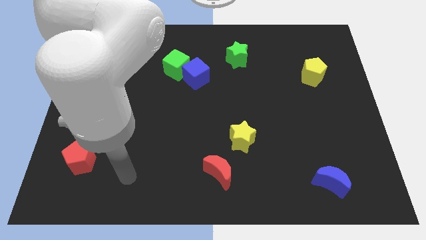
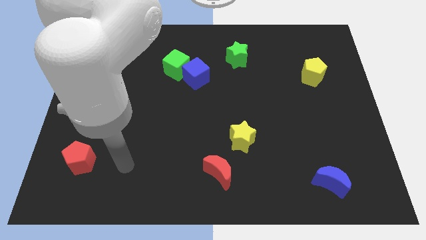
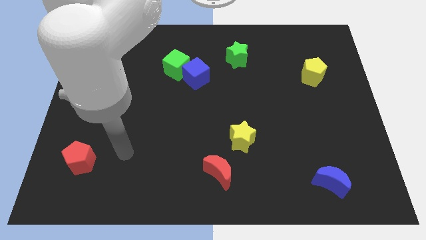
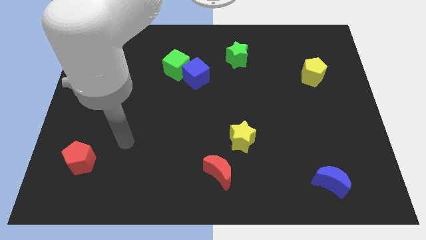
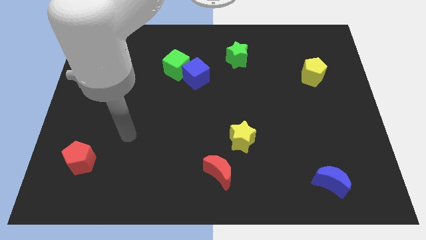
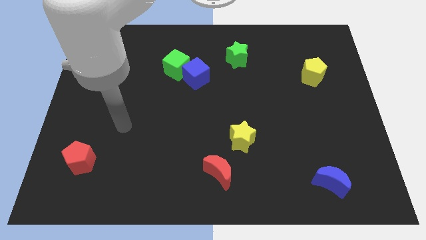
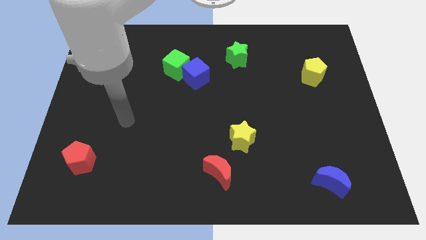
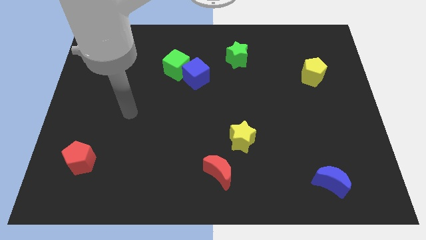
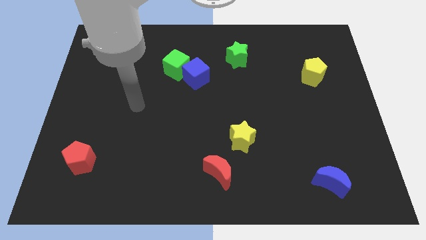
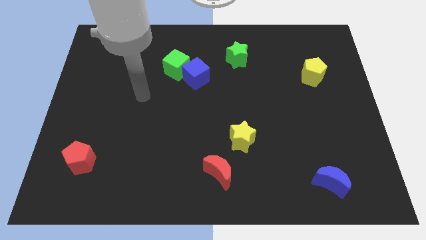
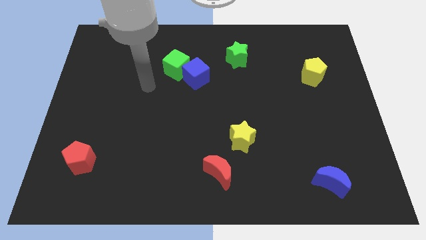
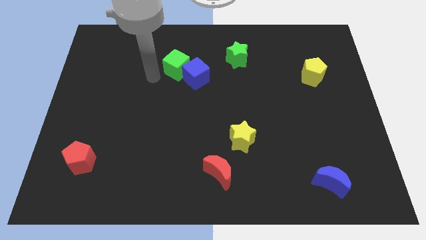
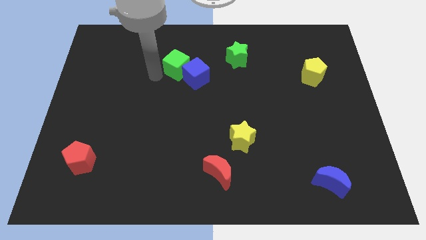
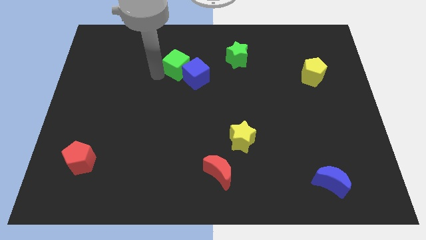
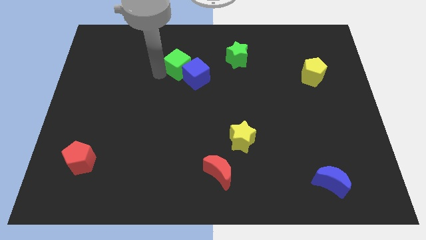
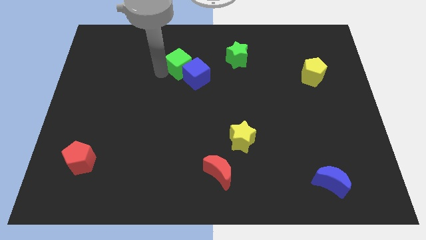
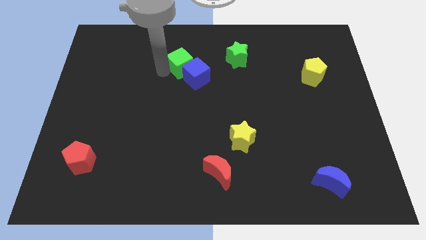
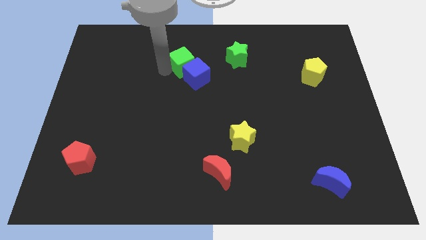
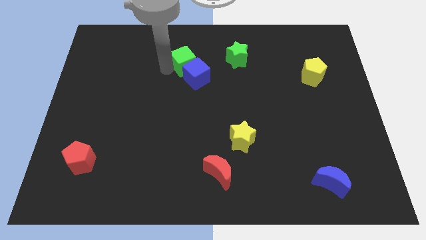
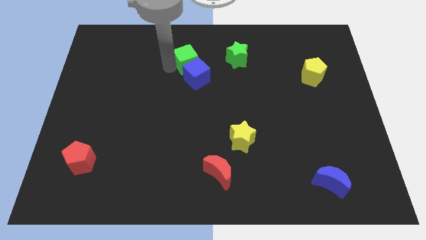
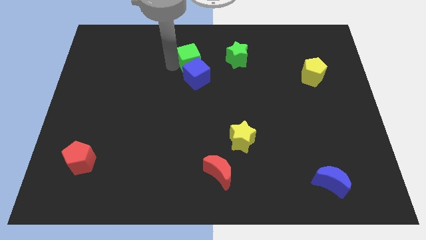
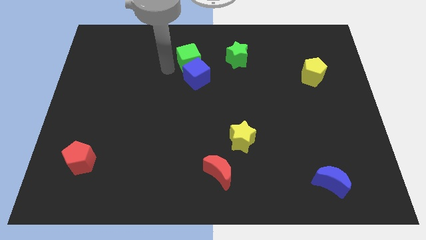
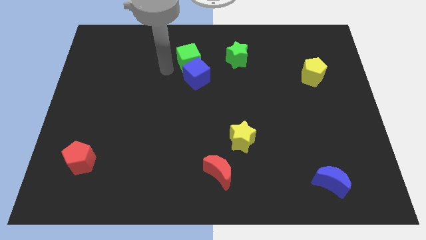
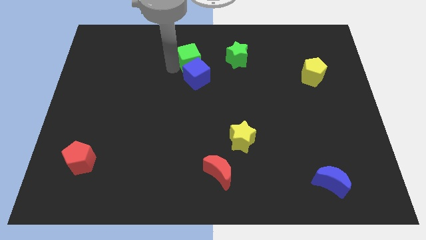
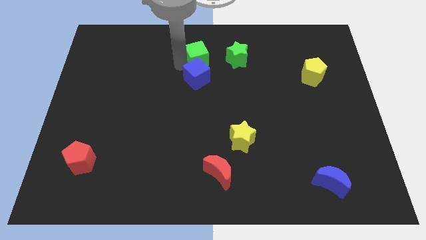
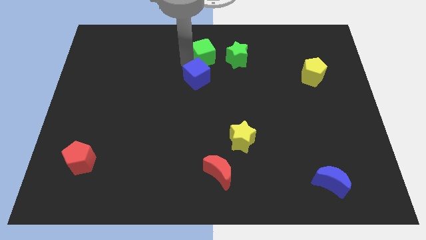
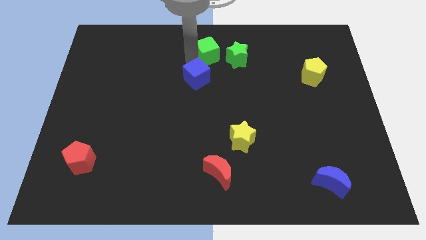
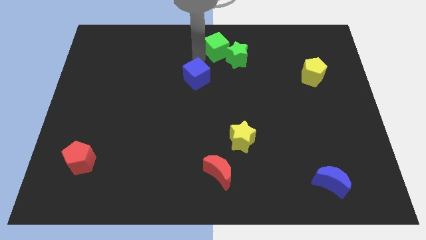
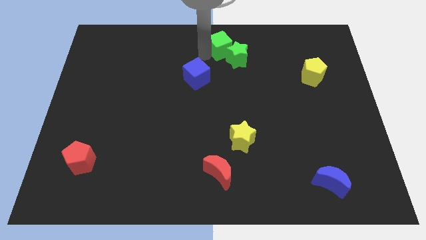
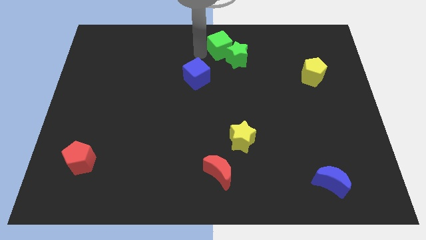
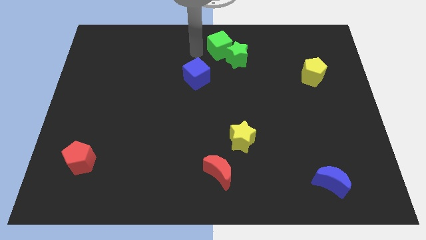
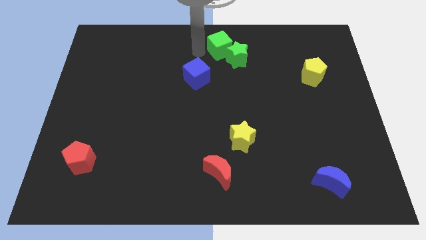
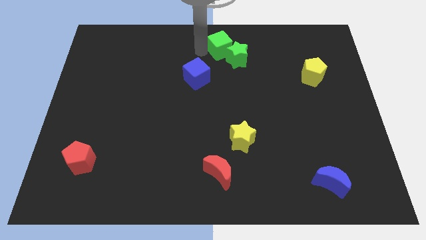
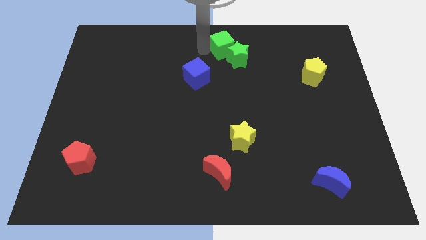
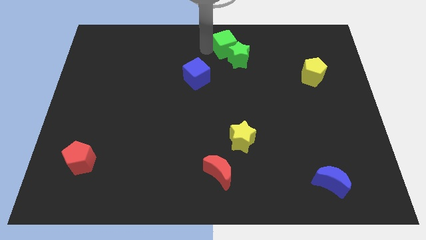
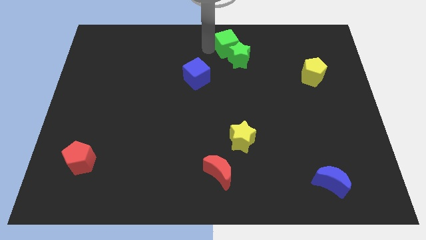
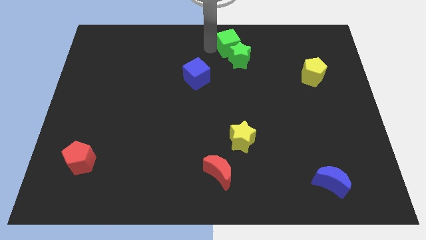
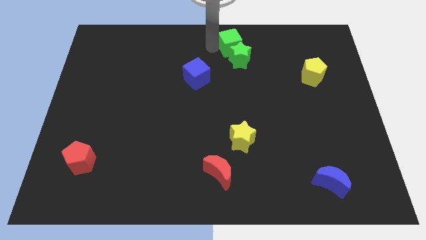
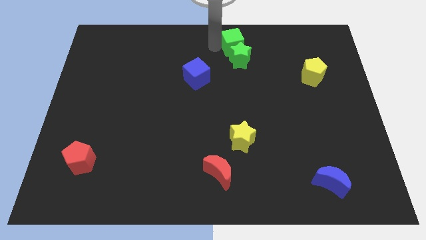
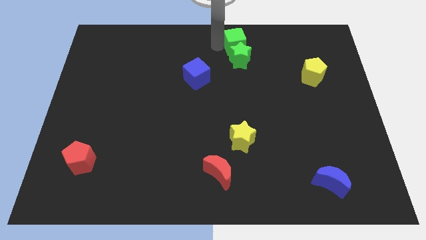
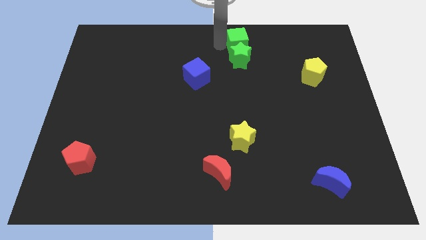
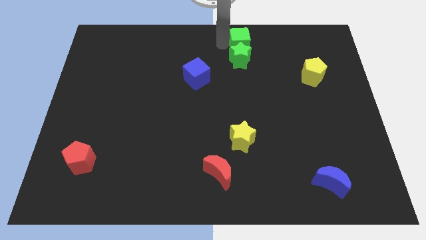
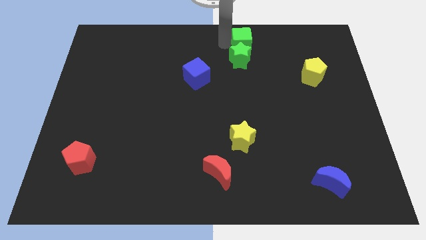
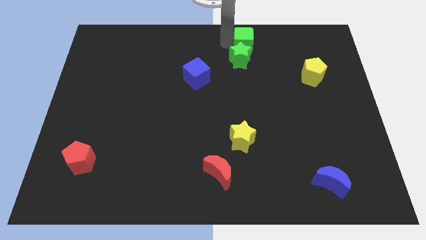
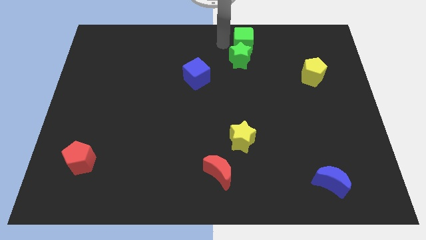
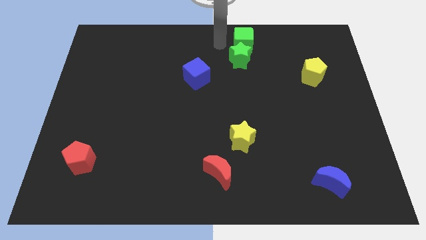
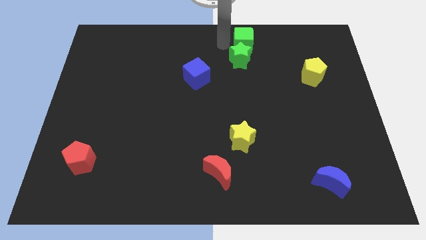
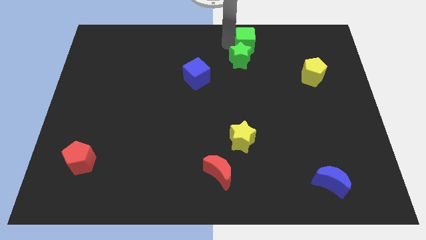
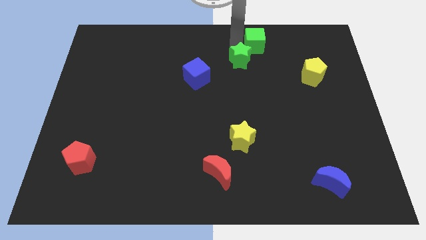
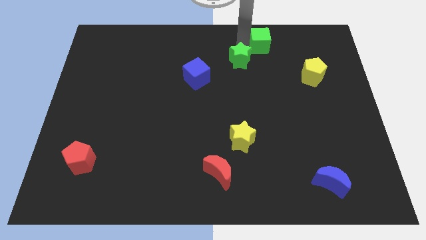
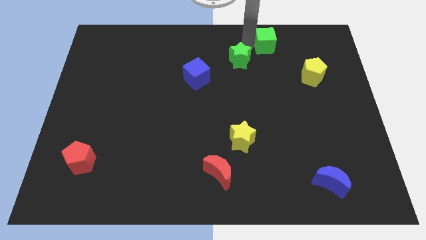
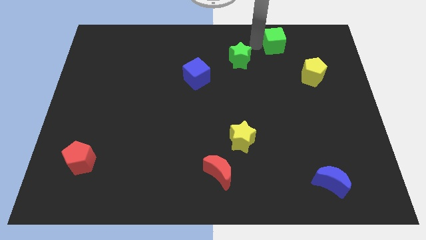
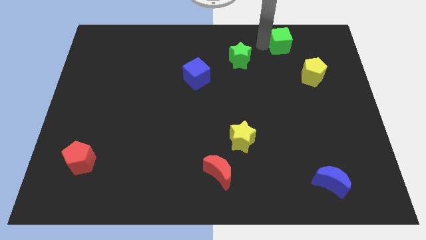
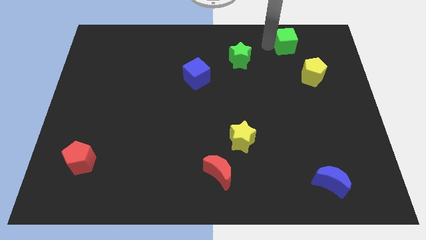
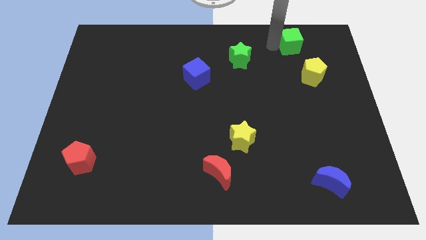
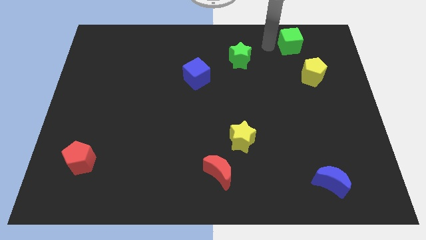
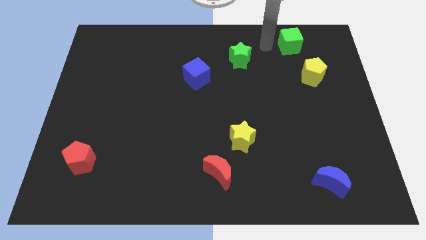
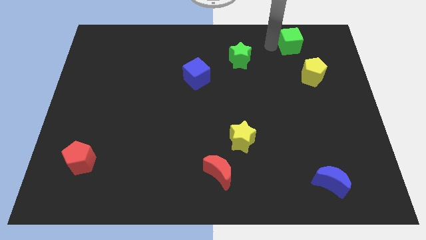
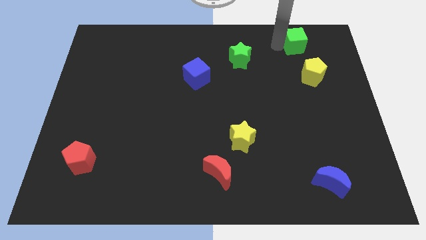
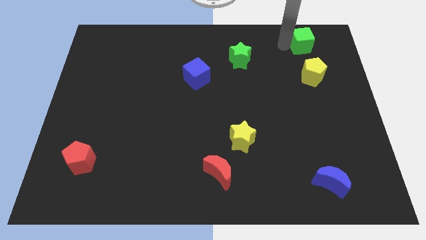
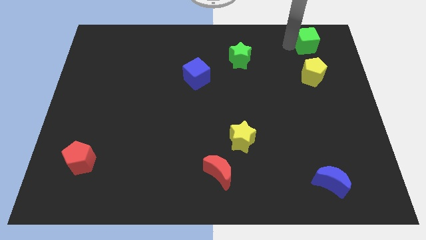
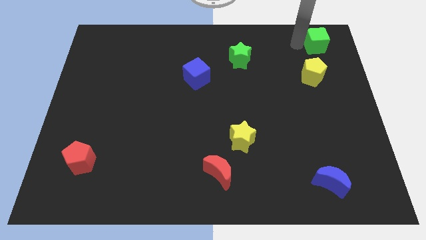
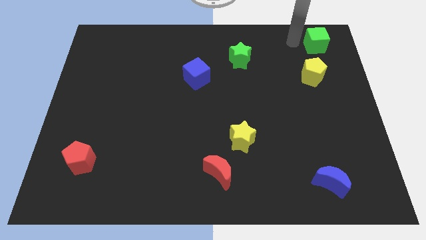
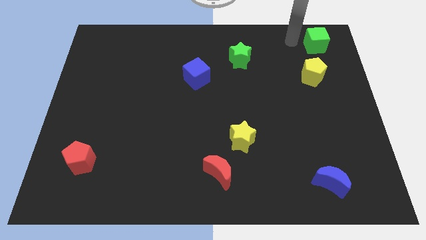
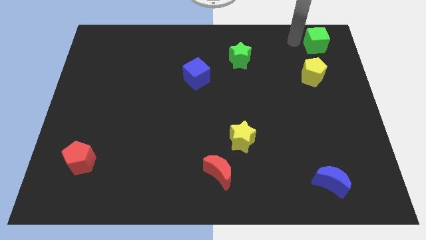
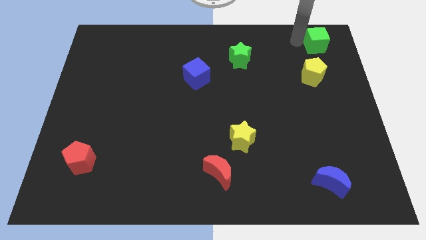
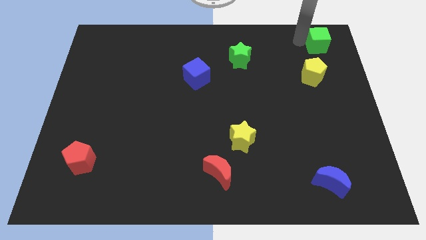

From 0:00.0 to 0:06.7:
move the green cube to the top right
